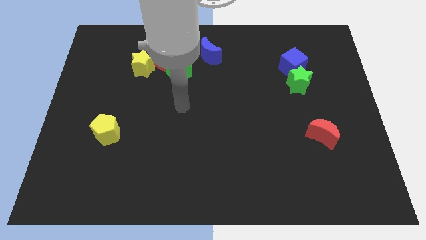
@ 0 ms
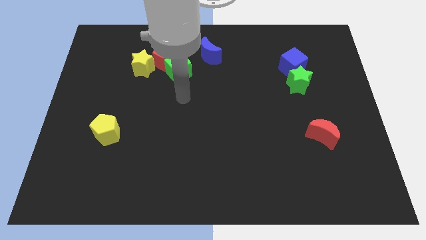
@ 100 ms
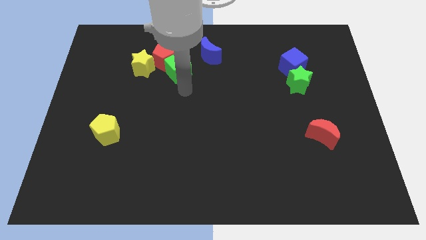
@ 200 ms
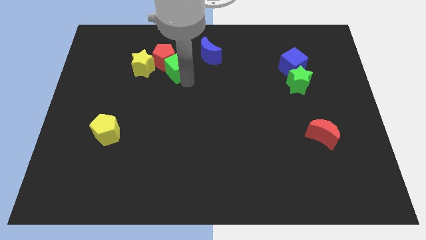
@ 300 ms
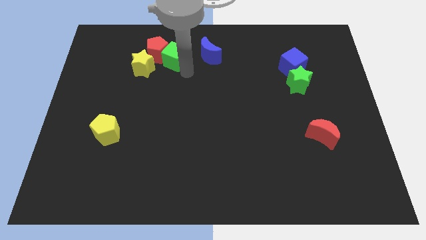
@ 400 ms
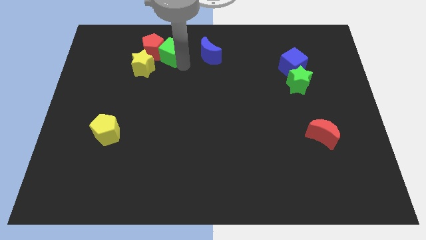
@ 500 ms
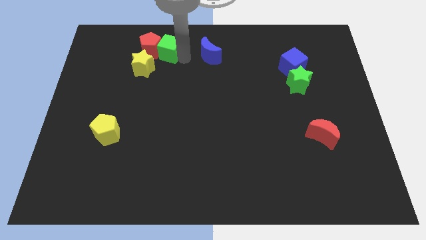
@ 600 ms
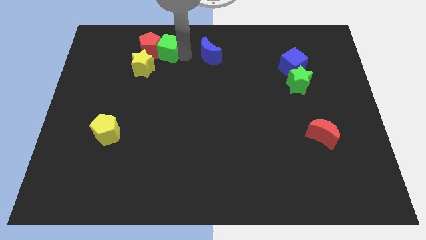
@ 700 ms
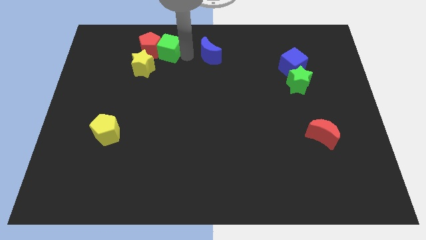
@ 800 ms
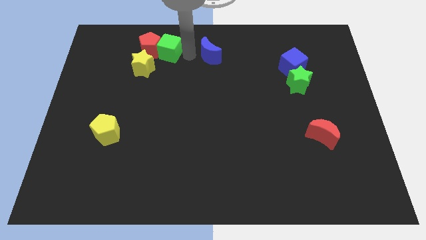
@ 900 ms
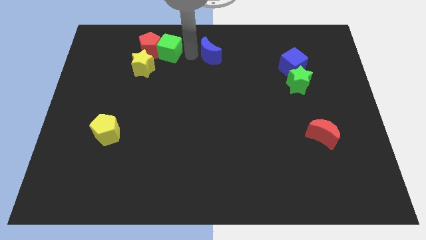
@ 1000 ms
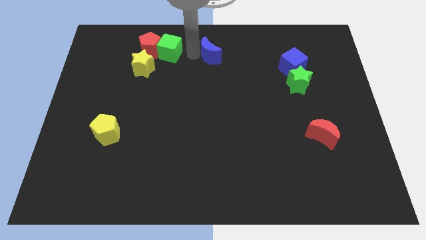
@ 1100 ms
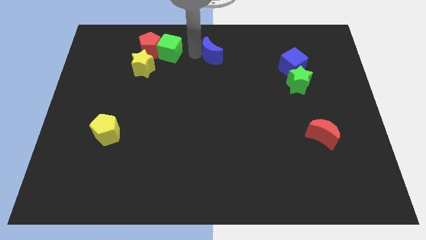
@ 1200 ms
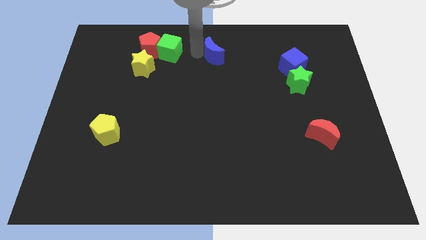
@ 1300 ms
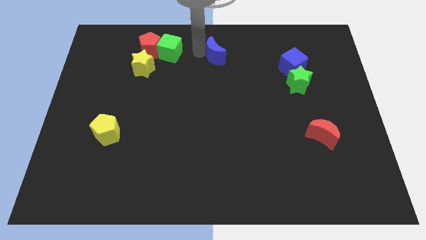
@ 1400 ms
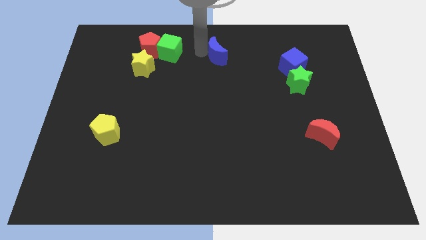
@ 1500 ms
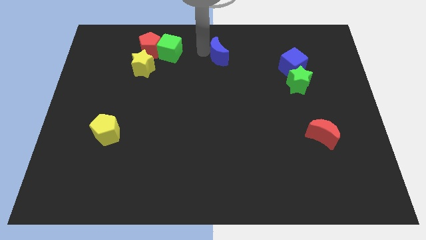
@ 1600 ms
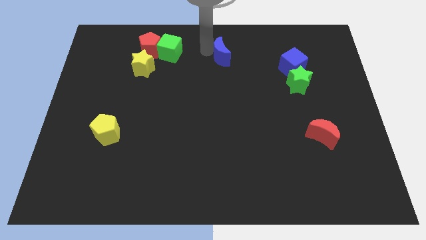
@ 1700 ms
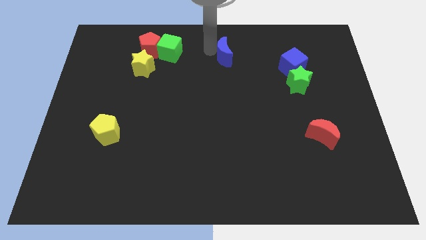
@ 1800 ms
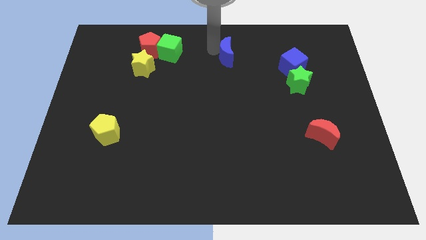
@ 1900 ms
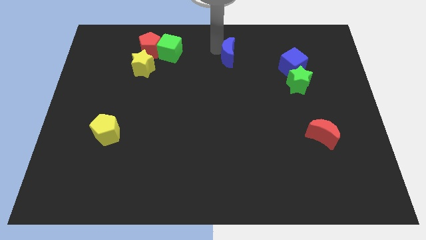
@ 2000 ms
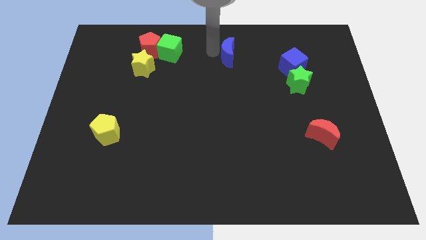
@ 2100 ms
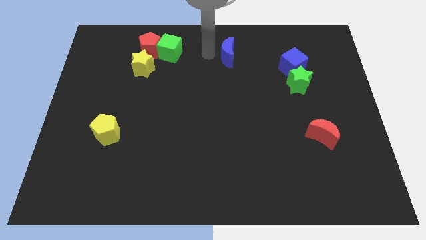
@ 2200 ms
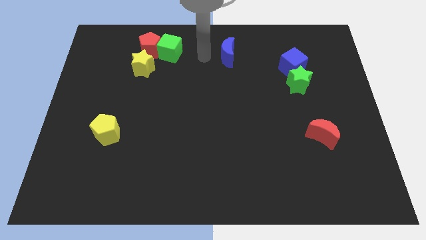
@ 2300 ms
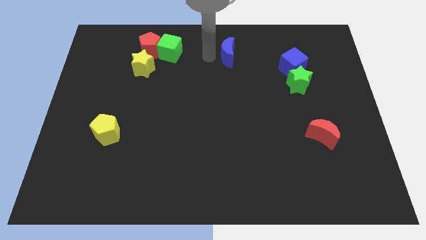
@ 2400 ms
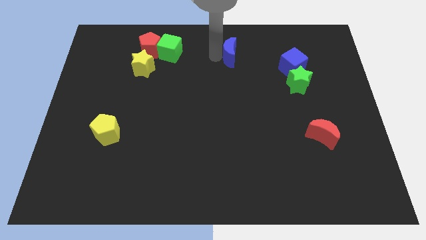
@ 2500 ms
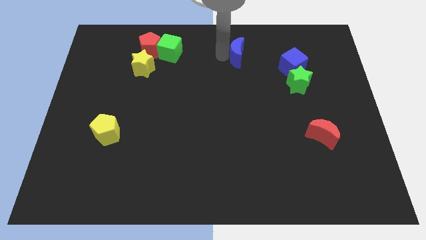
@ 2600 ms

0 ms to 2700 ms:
slightly slide the blue moon right

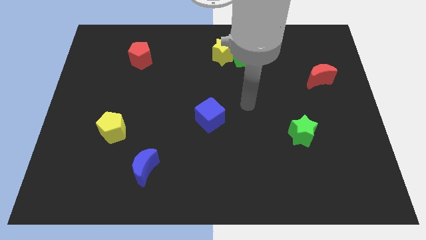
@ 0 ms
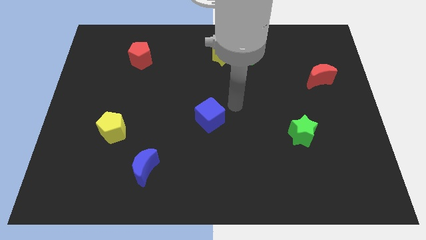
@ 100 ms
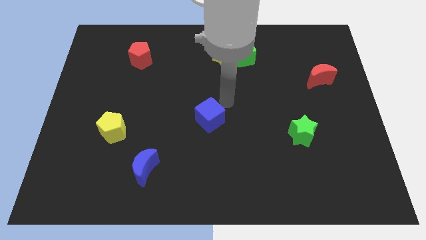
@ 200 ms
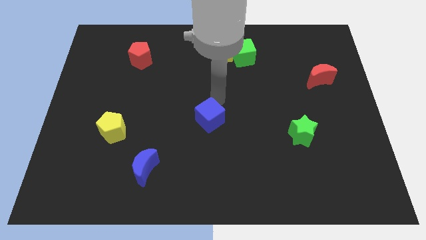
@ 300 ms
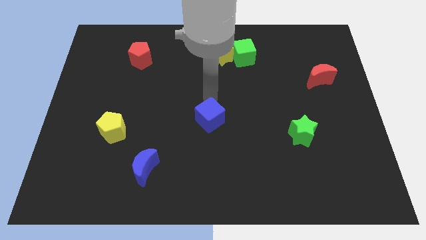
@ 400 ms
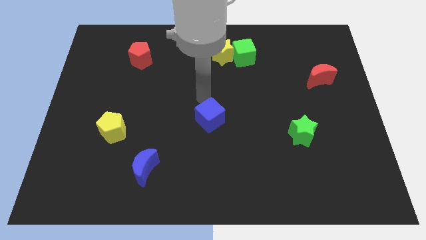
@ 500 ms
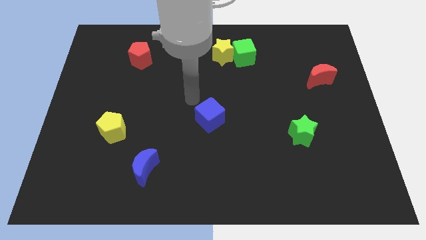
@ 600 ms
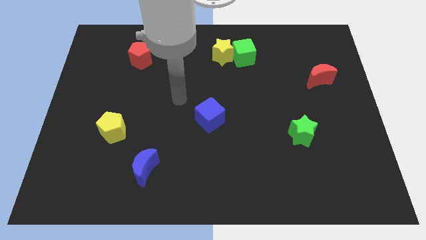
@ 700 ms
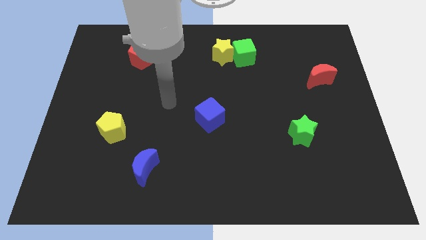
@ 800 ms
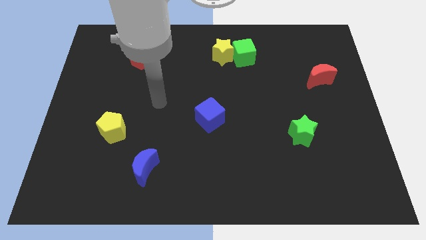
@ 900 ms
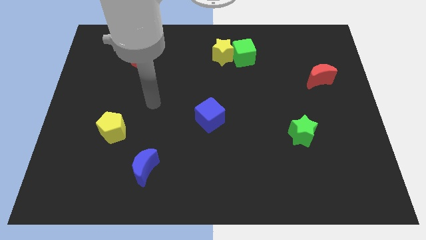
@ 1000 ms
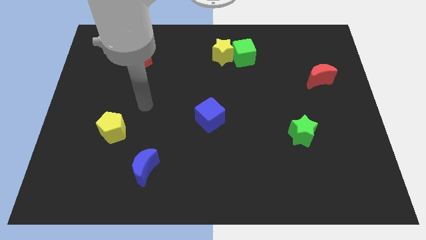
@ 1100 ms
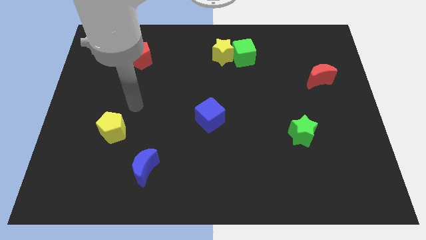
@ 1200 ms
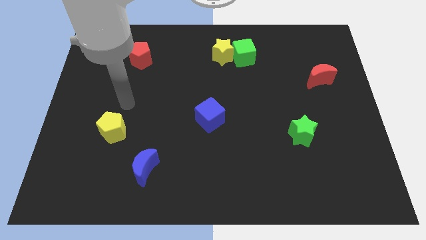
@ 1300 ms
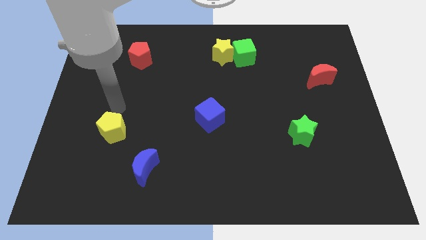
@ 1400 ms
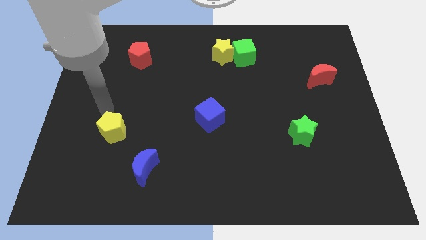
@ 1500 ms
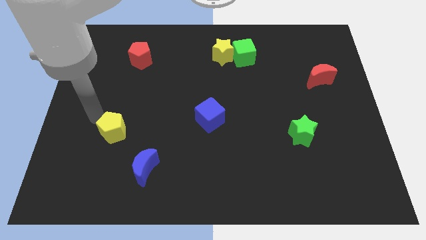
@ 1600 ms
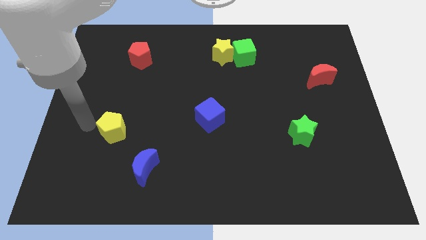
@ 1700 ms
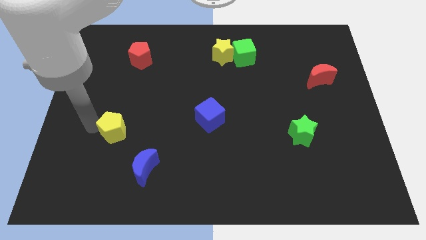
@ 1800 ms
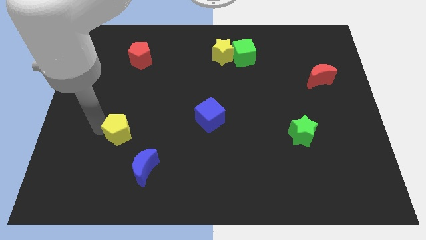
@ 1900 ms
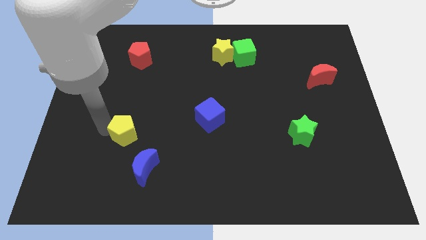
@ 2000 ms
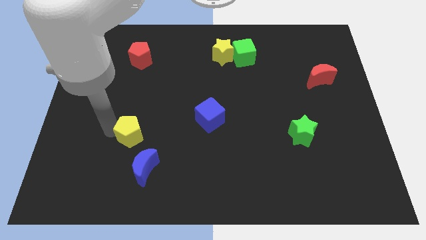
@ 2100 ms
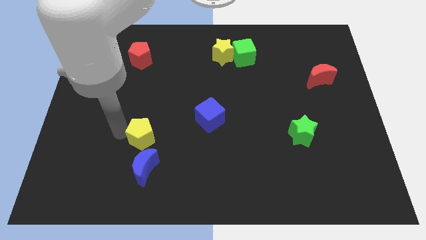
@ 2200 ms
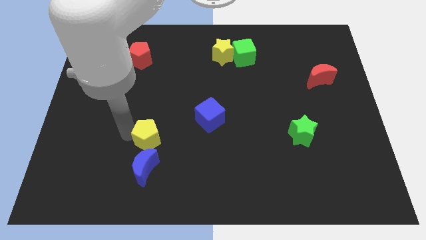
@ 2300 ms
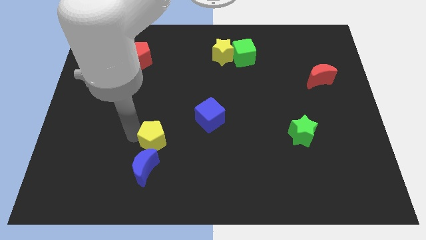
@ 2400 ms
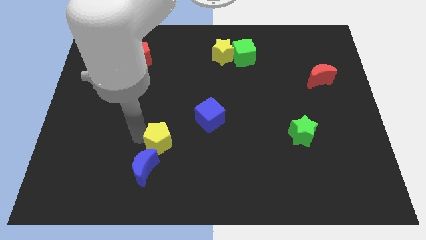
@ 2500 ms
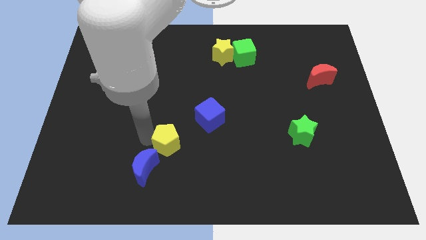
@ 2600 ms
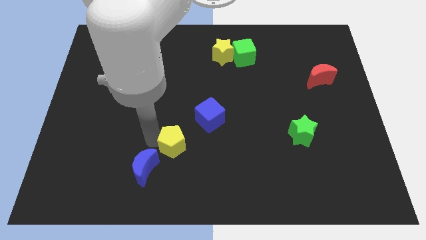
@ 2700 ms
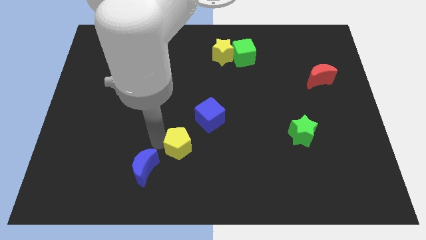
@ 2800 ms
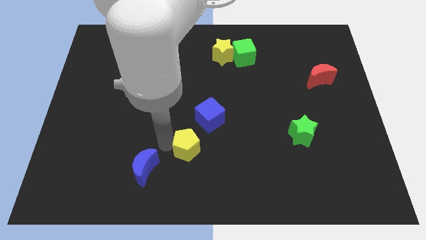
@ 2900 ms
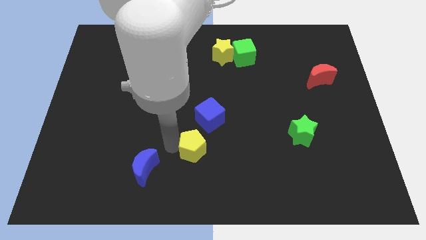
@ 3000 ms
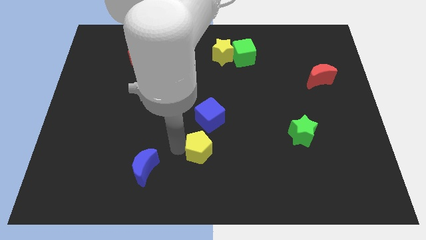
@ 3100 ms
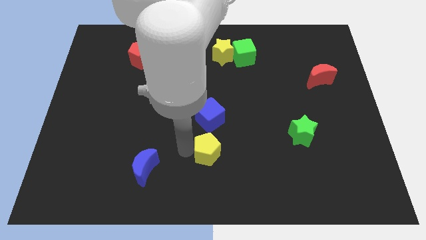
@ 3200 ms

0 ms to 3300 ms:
move the yellow pentagon right

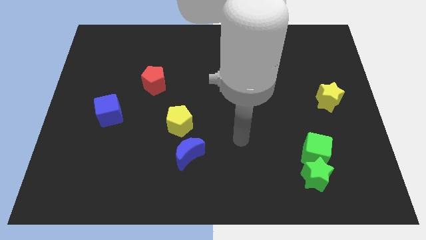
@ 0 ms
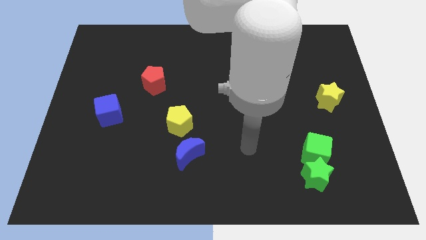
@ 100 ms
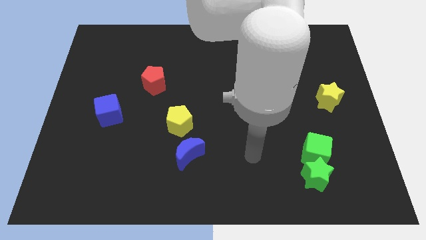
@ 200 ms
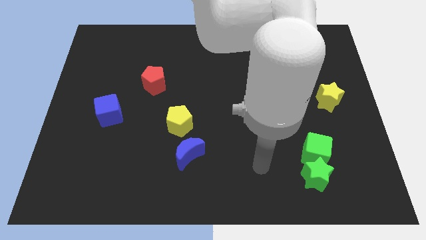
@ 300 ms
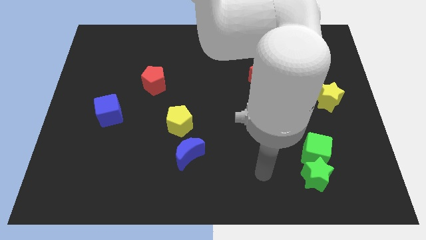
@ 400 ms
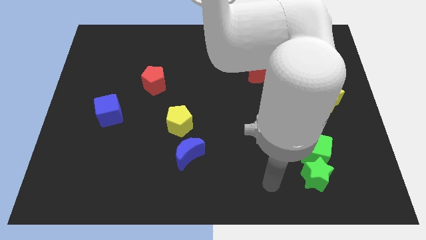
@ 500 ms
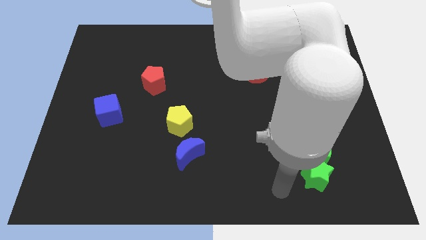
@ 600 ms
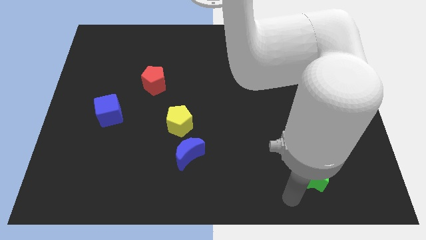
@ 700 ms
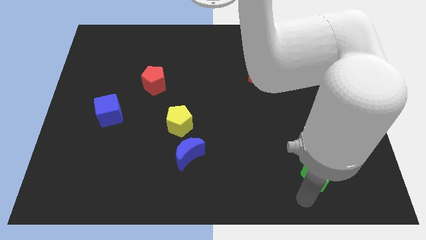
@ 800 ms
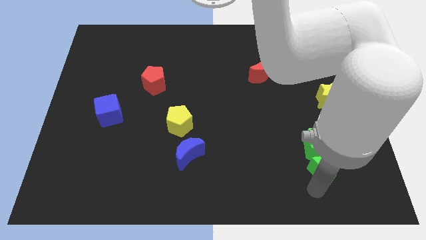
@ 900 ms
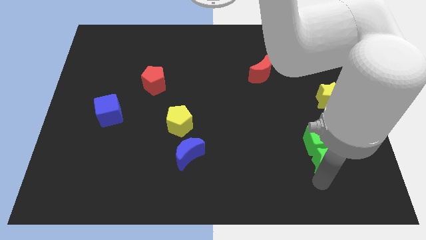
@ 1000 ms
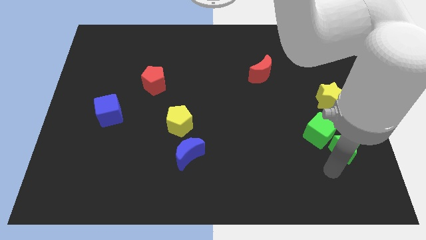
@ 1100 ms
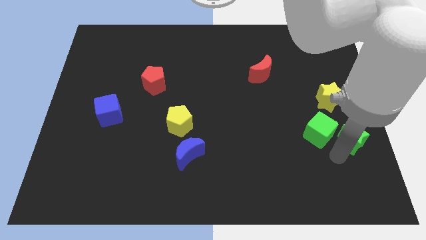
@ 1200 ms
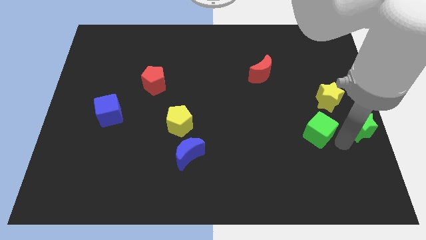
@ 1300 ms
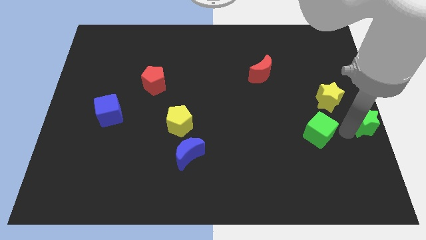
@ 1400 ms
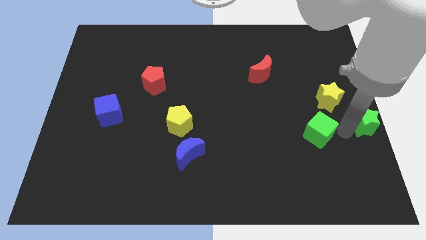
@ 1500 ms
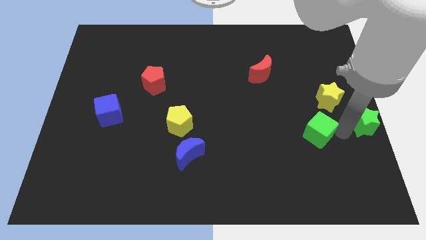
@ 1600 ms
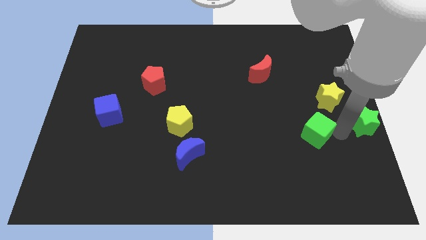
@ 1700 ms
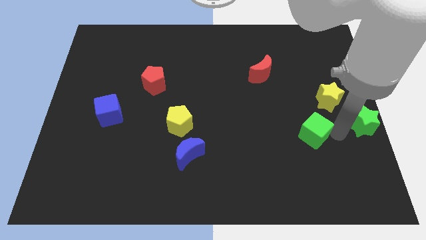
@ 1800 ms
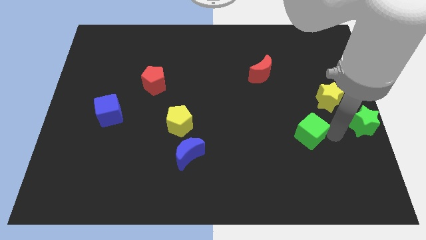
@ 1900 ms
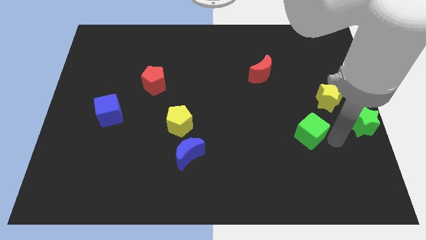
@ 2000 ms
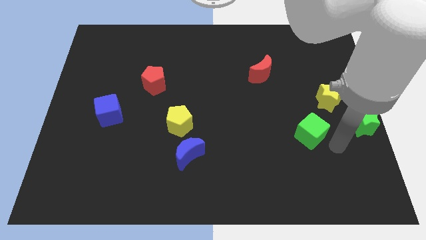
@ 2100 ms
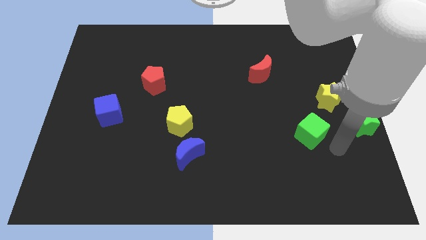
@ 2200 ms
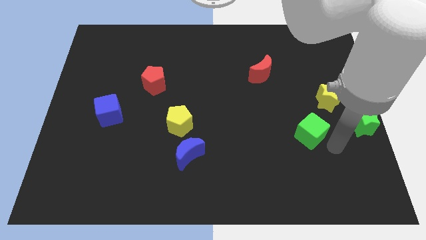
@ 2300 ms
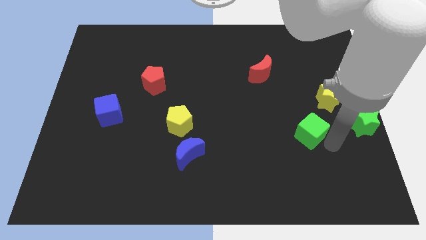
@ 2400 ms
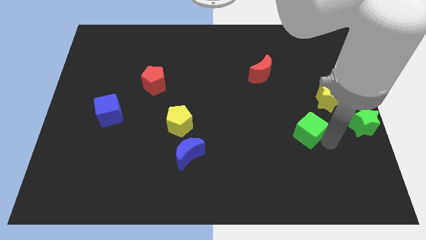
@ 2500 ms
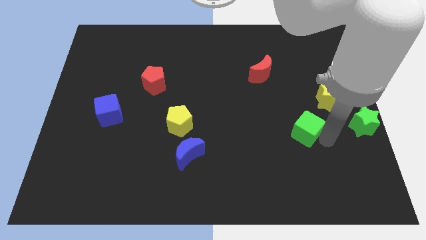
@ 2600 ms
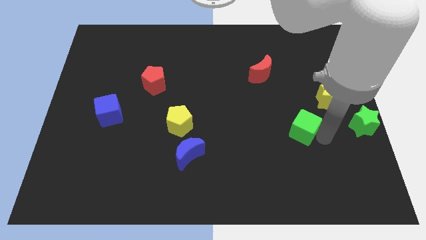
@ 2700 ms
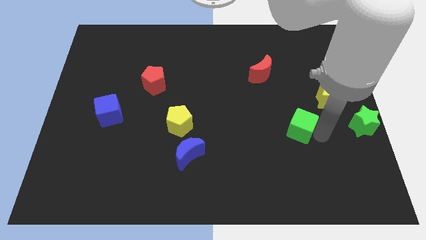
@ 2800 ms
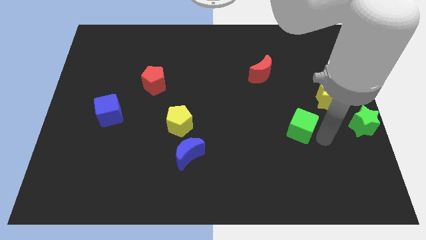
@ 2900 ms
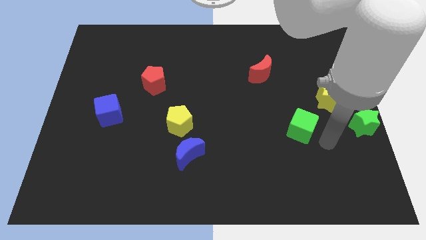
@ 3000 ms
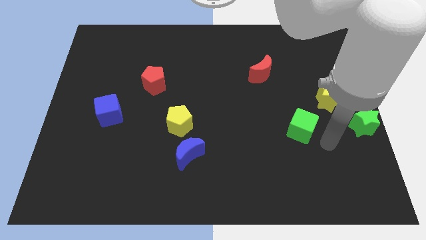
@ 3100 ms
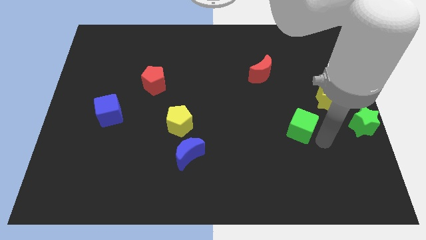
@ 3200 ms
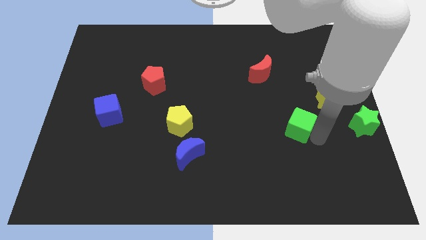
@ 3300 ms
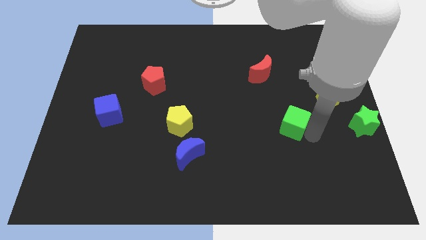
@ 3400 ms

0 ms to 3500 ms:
slide the green cube a little diagonally up and left
